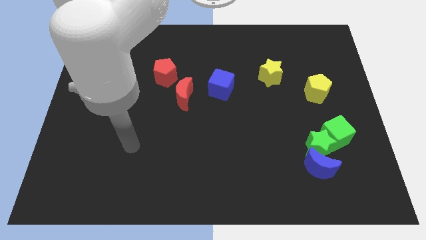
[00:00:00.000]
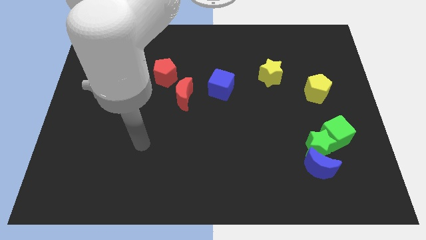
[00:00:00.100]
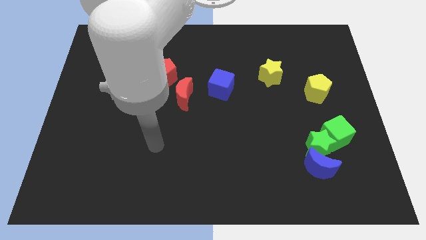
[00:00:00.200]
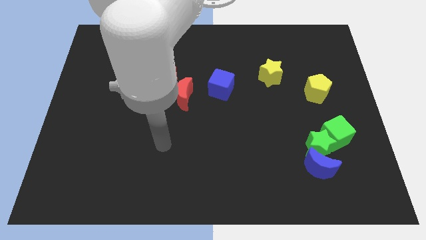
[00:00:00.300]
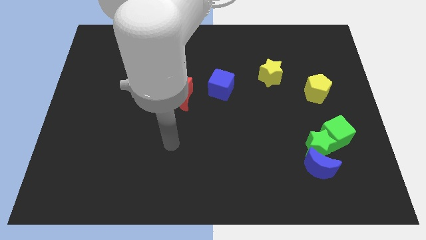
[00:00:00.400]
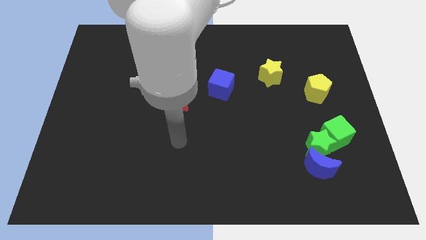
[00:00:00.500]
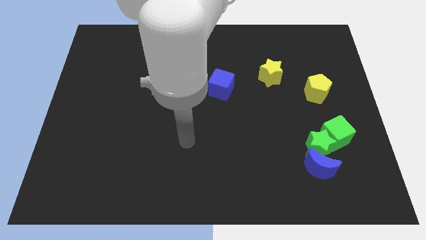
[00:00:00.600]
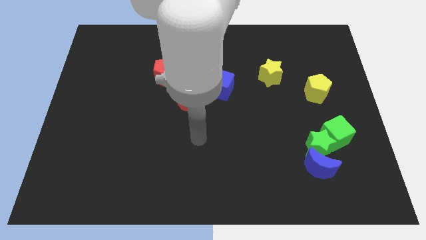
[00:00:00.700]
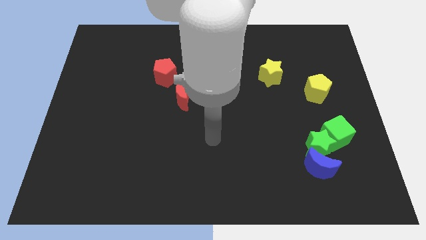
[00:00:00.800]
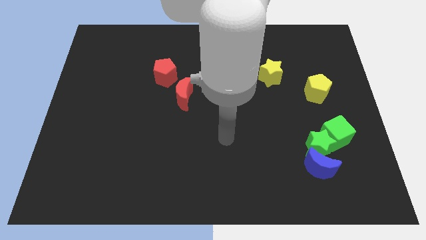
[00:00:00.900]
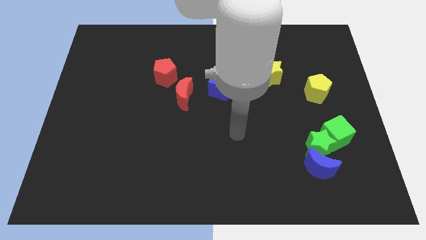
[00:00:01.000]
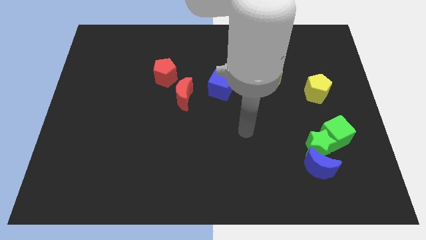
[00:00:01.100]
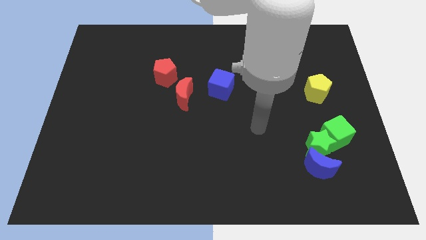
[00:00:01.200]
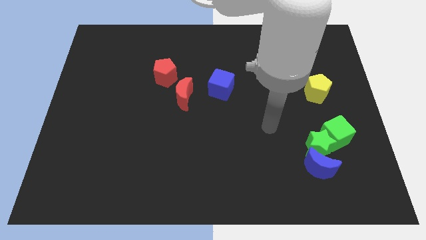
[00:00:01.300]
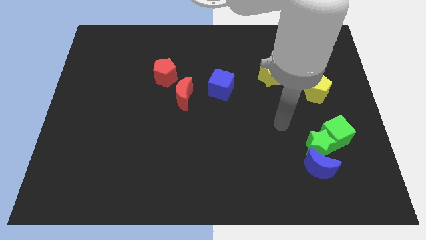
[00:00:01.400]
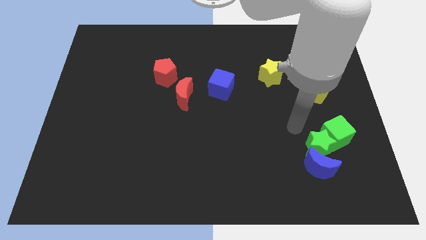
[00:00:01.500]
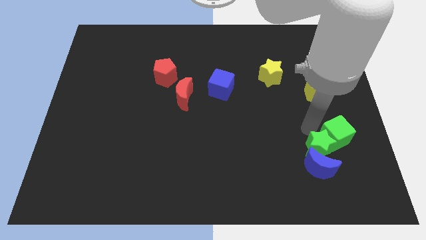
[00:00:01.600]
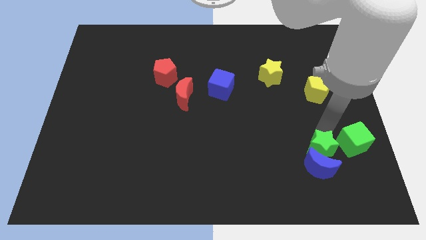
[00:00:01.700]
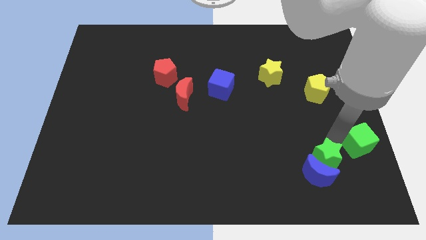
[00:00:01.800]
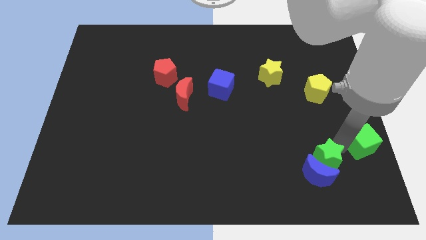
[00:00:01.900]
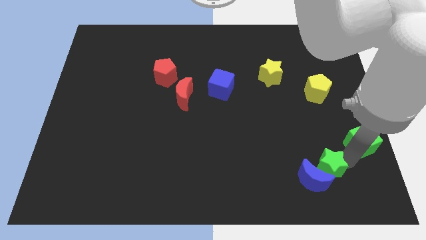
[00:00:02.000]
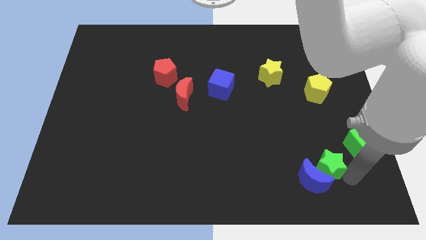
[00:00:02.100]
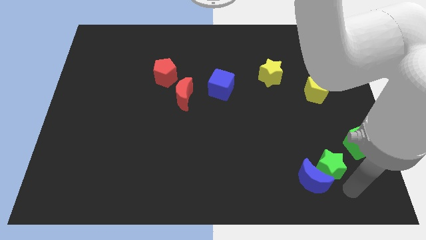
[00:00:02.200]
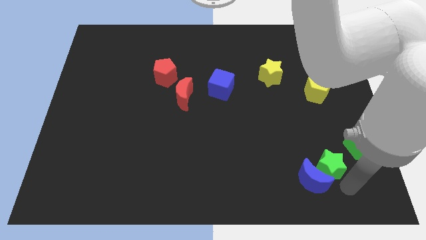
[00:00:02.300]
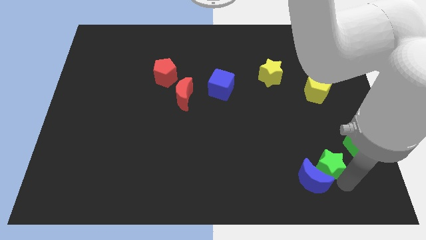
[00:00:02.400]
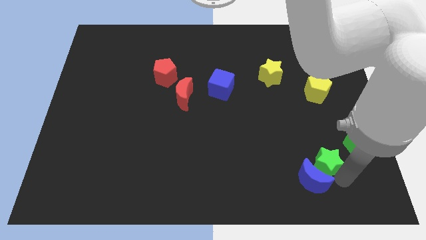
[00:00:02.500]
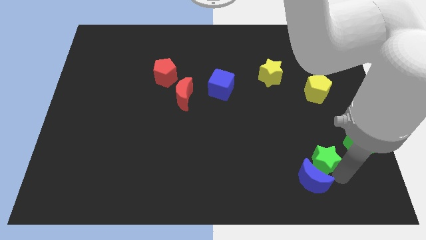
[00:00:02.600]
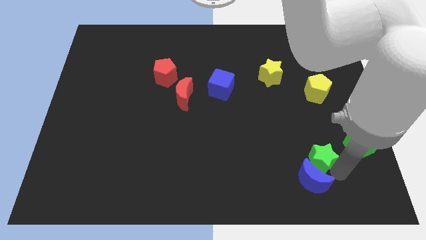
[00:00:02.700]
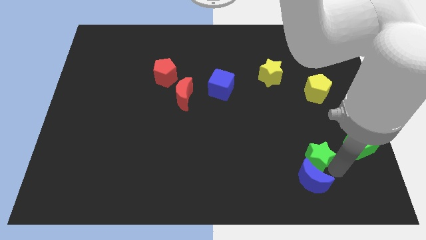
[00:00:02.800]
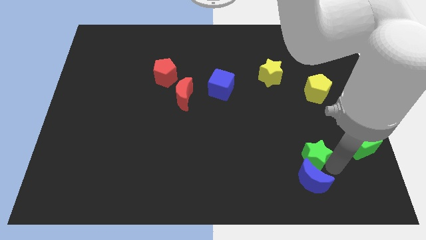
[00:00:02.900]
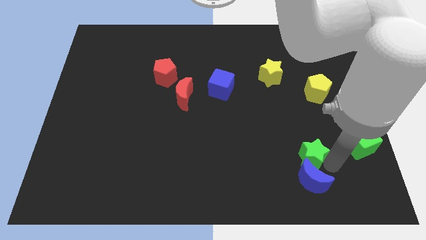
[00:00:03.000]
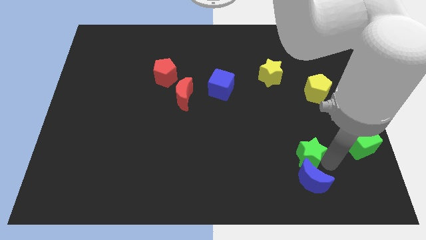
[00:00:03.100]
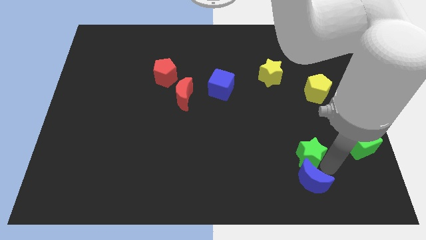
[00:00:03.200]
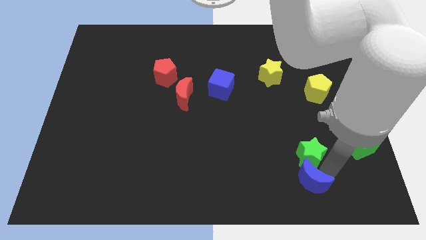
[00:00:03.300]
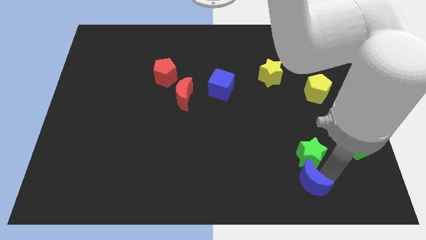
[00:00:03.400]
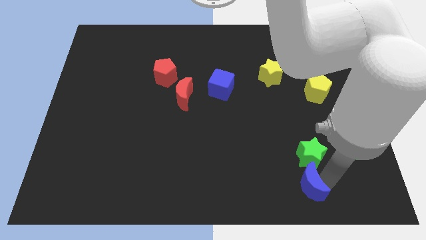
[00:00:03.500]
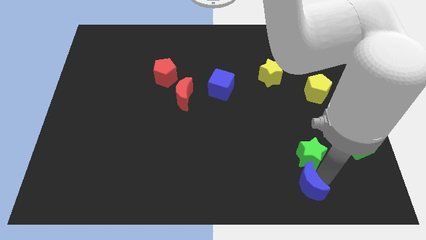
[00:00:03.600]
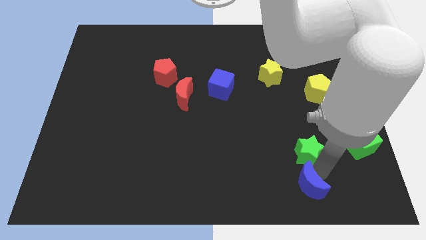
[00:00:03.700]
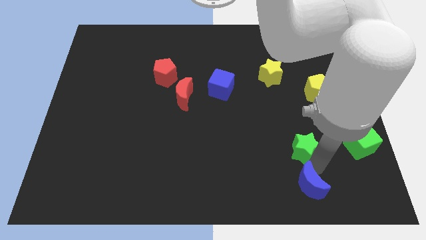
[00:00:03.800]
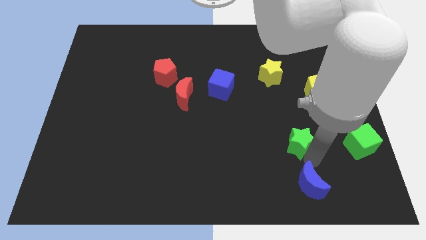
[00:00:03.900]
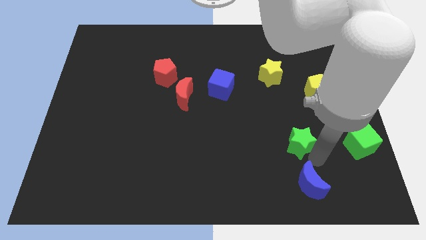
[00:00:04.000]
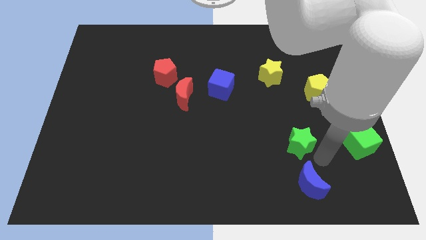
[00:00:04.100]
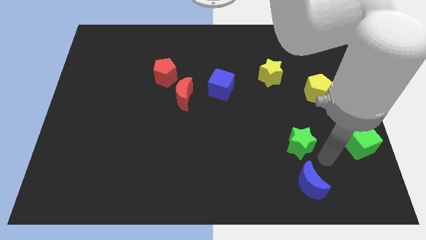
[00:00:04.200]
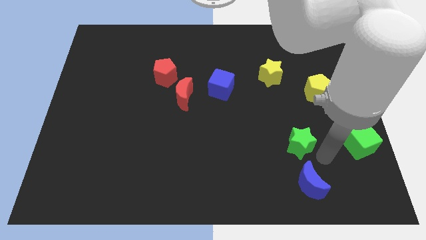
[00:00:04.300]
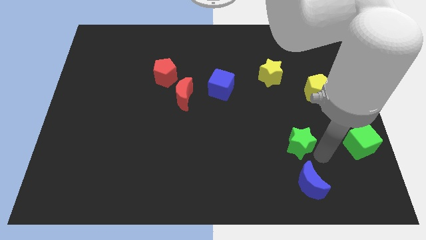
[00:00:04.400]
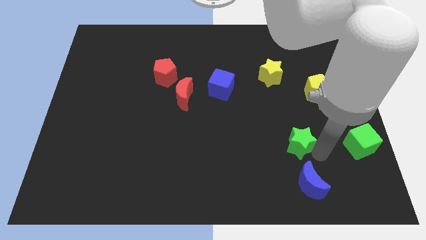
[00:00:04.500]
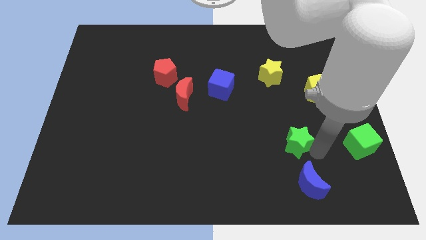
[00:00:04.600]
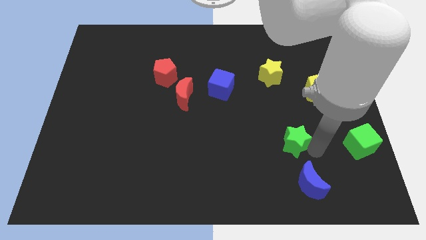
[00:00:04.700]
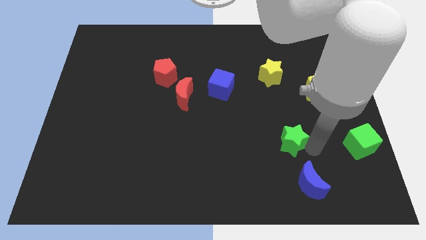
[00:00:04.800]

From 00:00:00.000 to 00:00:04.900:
move the green star away from the blue moon and green cube

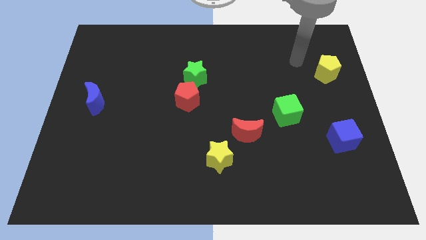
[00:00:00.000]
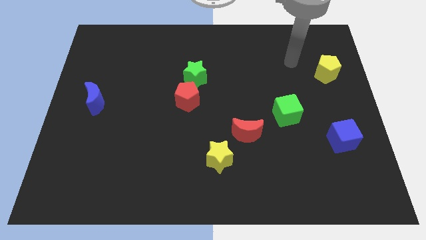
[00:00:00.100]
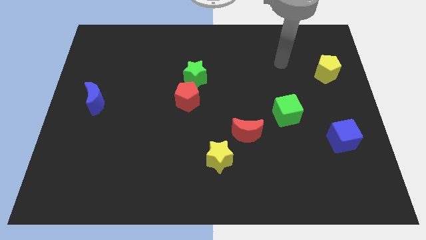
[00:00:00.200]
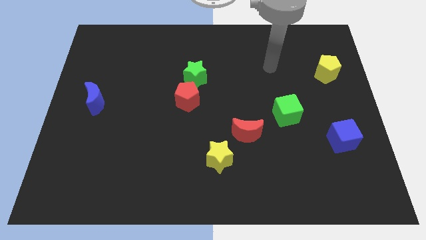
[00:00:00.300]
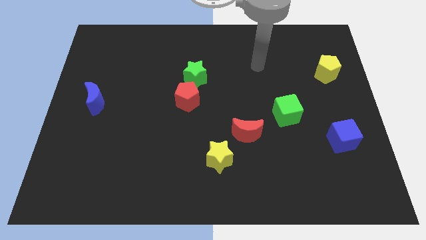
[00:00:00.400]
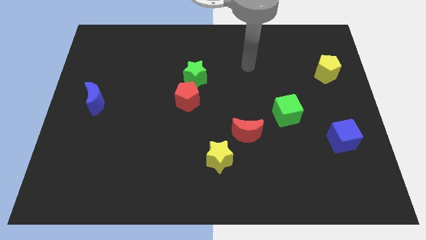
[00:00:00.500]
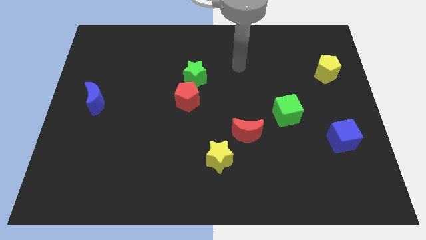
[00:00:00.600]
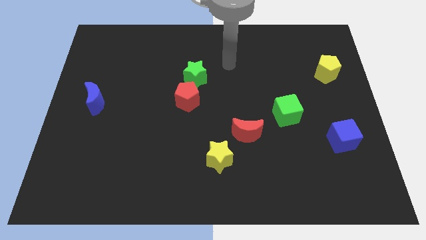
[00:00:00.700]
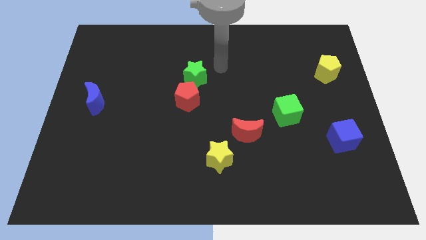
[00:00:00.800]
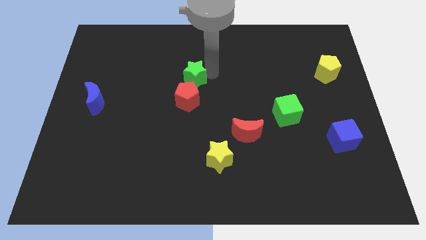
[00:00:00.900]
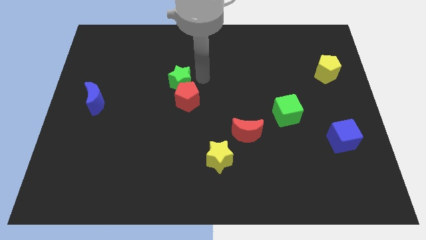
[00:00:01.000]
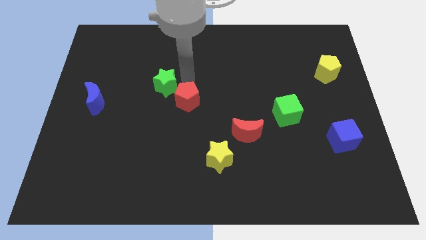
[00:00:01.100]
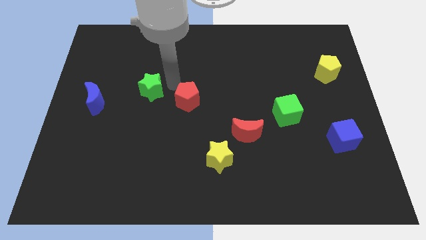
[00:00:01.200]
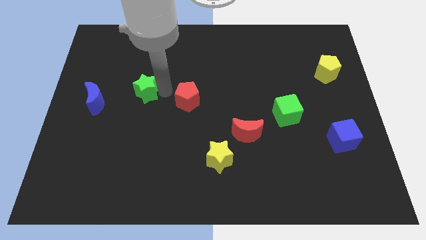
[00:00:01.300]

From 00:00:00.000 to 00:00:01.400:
move the red pentagon away from the green star

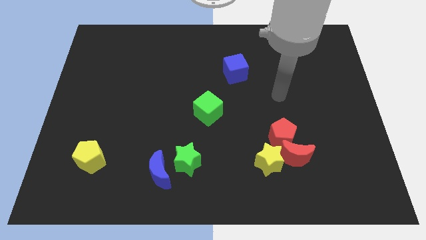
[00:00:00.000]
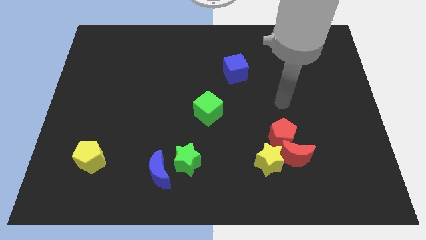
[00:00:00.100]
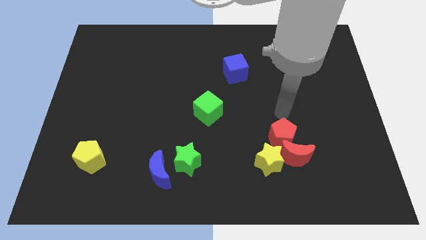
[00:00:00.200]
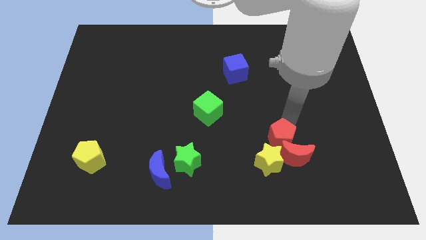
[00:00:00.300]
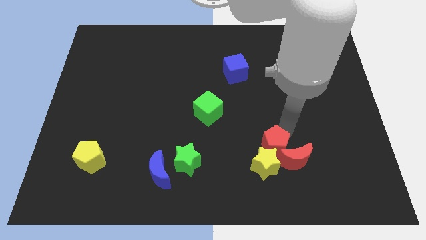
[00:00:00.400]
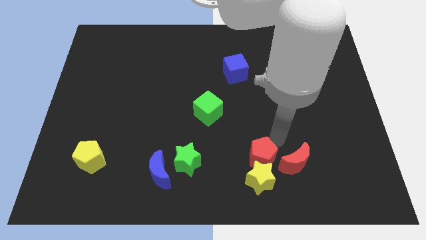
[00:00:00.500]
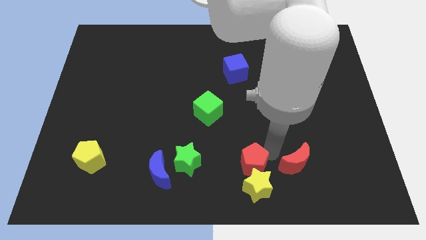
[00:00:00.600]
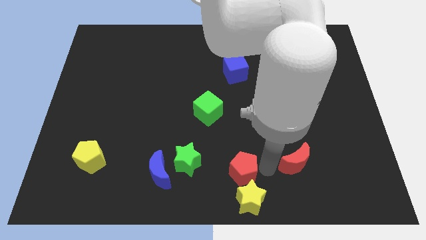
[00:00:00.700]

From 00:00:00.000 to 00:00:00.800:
pull the red moon apart from the red pentagon and yellow star

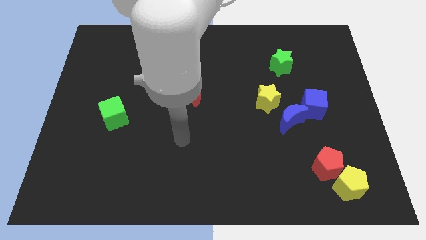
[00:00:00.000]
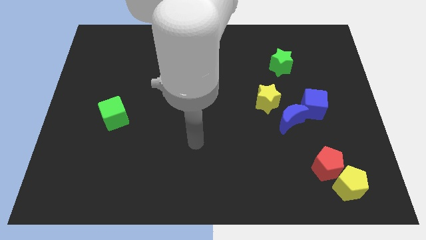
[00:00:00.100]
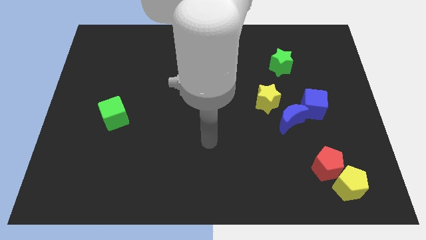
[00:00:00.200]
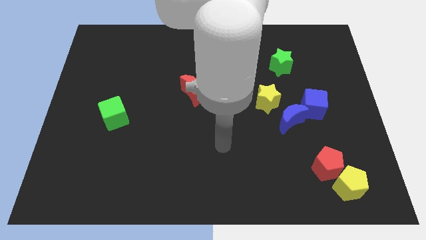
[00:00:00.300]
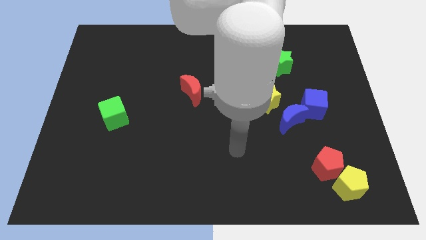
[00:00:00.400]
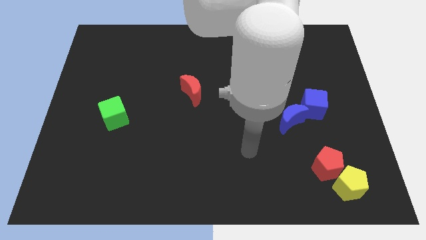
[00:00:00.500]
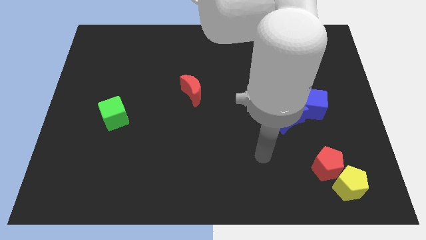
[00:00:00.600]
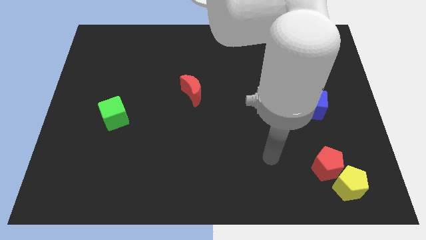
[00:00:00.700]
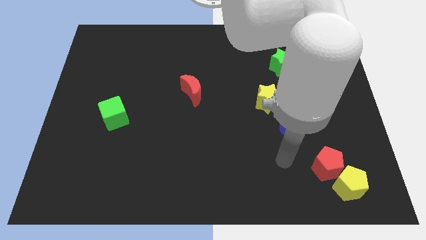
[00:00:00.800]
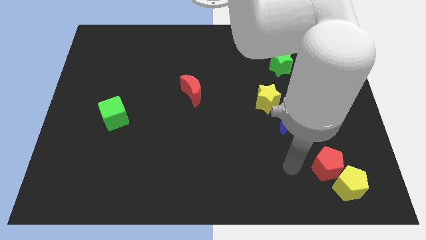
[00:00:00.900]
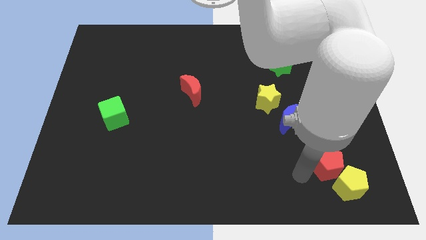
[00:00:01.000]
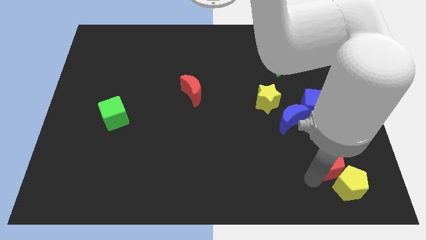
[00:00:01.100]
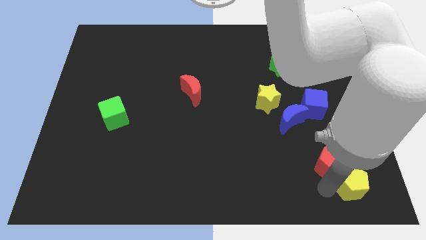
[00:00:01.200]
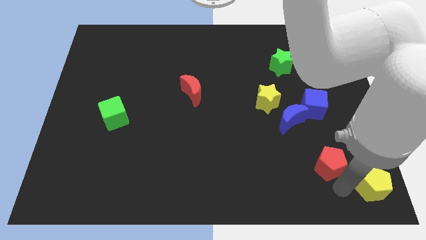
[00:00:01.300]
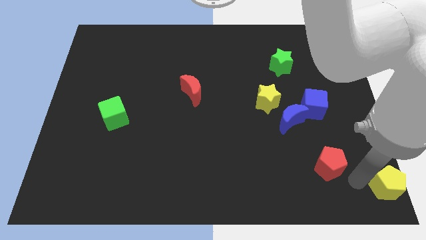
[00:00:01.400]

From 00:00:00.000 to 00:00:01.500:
separate the red pentagon from the yellow pentagon

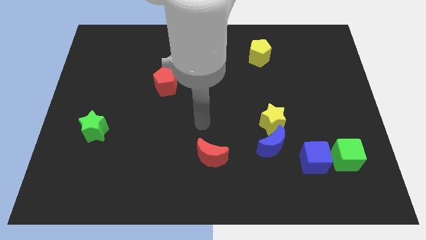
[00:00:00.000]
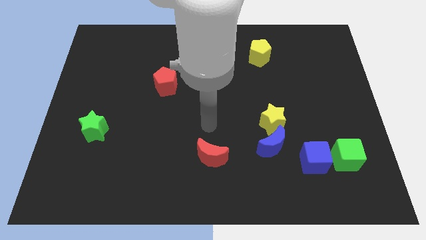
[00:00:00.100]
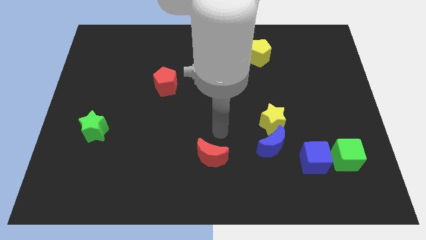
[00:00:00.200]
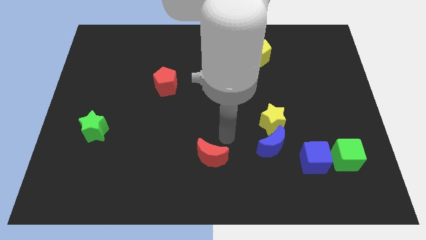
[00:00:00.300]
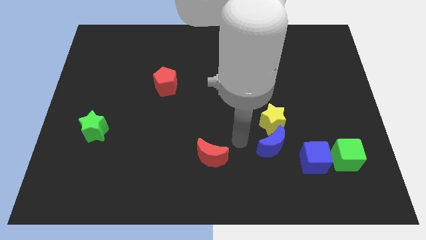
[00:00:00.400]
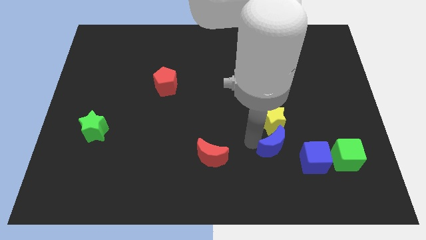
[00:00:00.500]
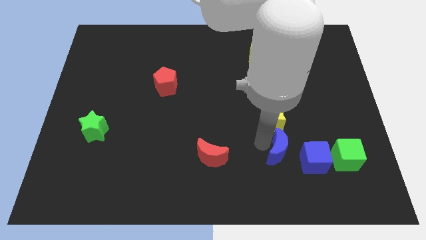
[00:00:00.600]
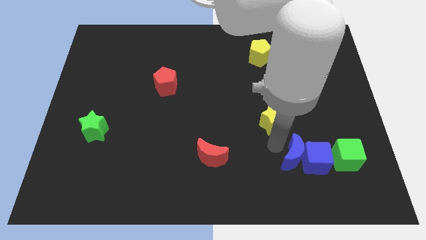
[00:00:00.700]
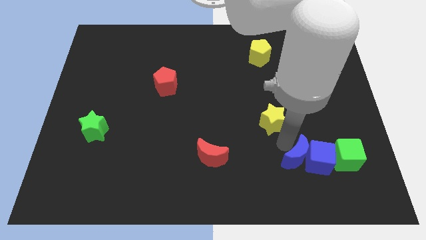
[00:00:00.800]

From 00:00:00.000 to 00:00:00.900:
separate the yellow star from the blue moon
